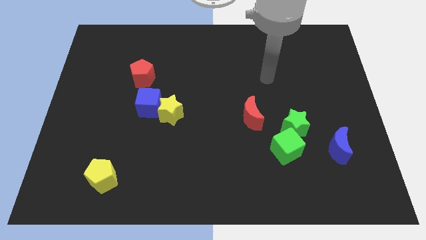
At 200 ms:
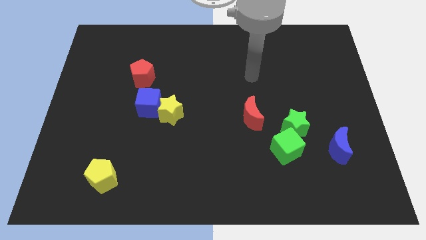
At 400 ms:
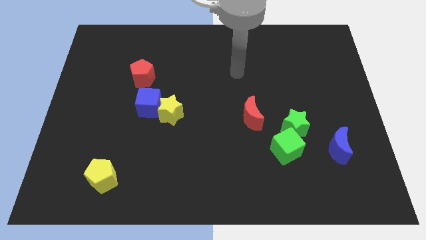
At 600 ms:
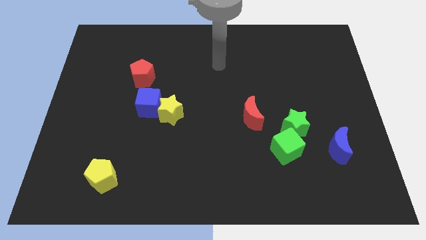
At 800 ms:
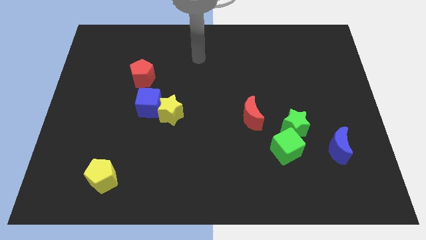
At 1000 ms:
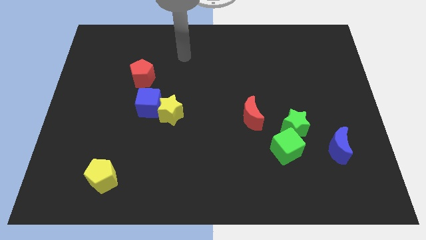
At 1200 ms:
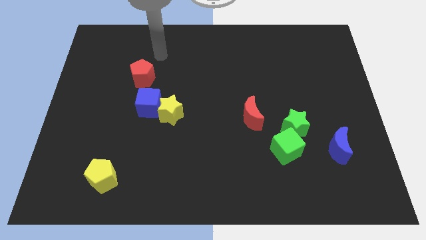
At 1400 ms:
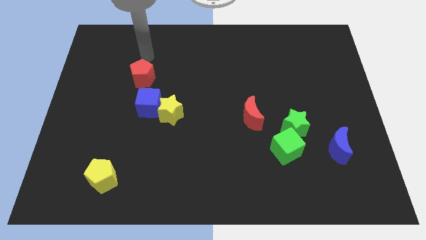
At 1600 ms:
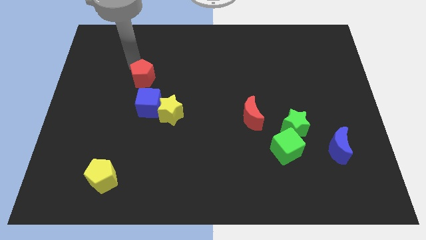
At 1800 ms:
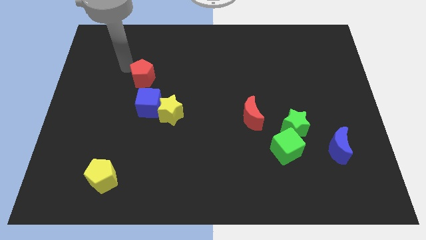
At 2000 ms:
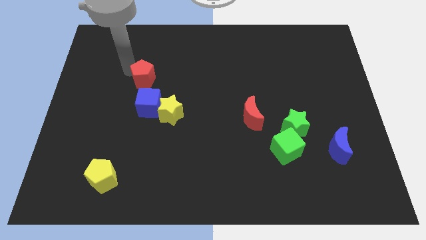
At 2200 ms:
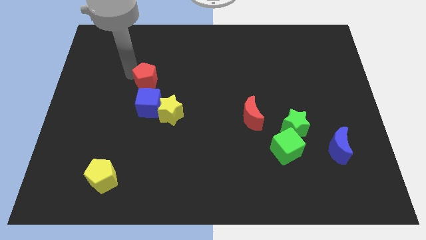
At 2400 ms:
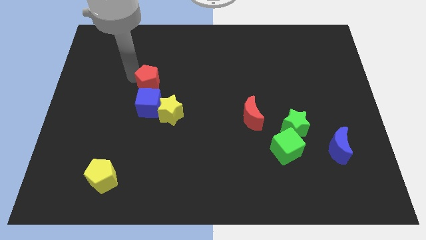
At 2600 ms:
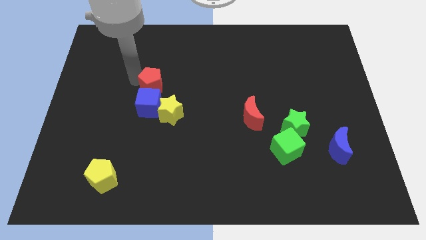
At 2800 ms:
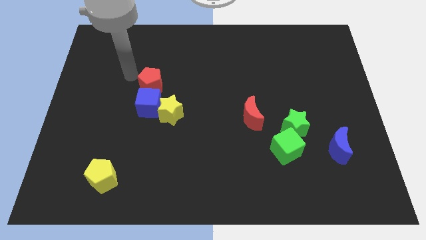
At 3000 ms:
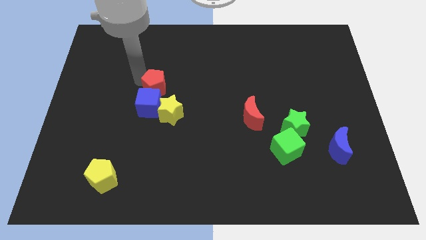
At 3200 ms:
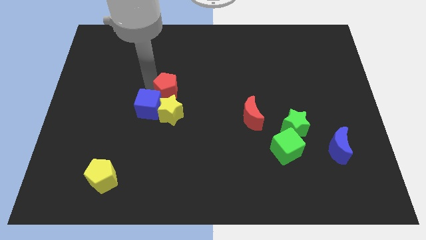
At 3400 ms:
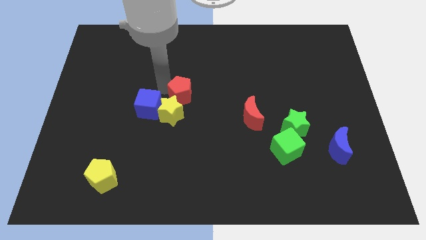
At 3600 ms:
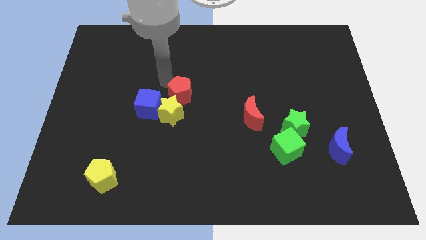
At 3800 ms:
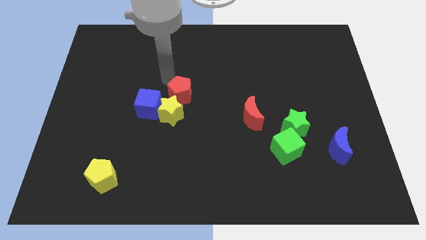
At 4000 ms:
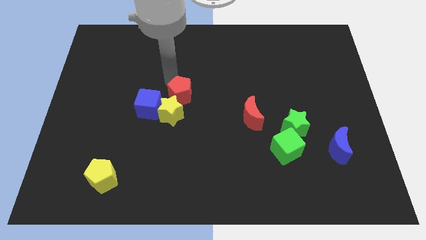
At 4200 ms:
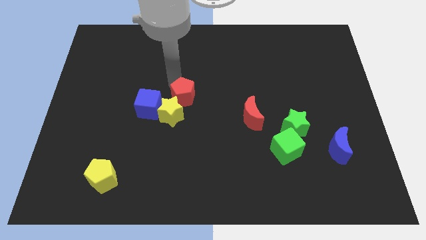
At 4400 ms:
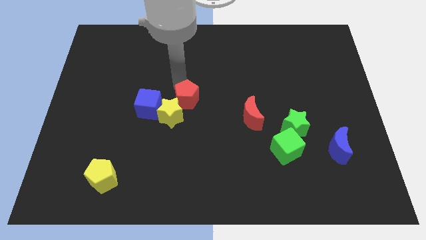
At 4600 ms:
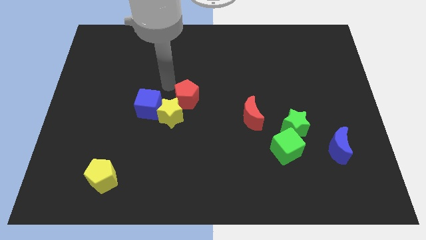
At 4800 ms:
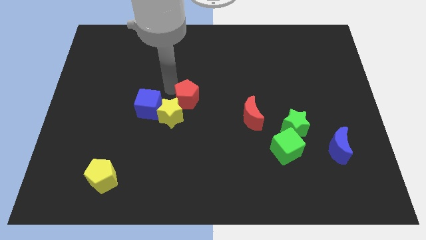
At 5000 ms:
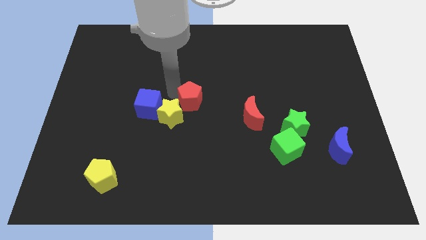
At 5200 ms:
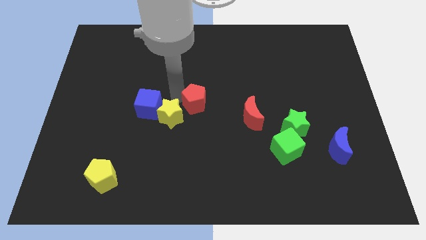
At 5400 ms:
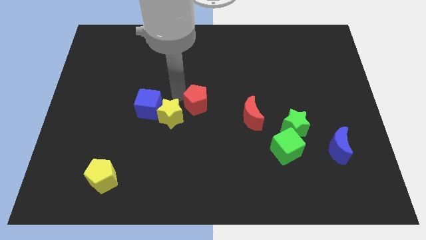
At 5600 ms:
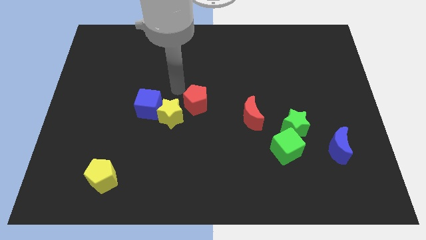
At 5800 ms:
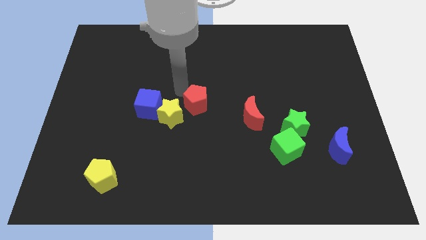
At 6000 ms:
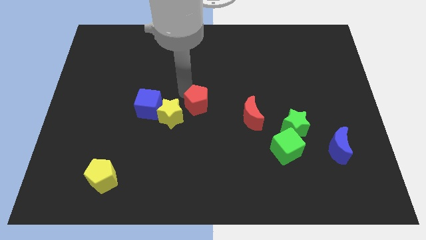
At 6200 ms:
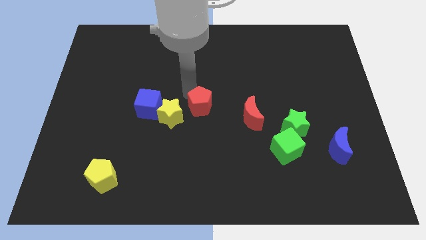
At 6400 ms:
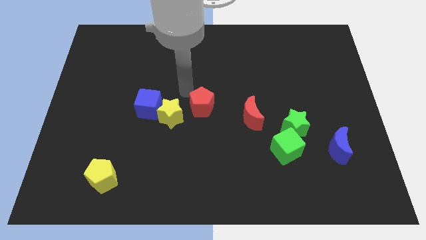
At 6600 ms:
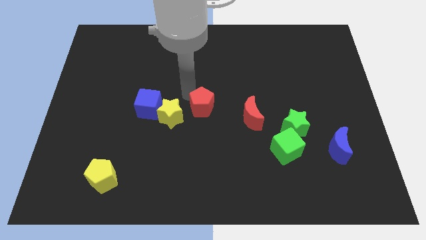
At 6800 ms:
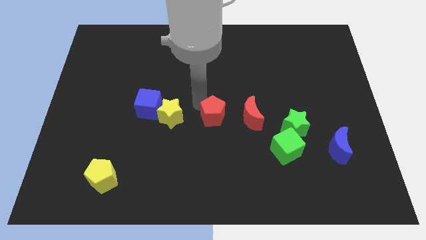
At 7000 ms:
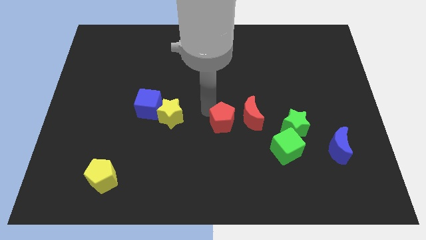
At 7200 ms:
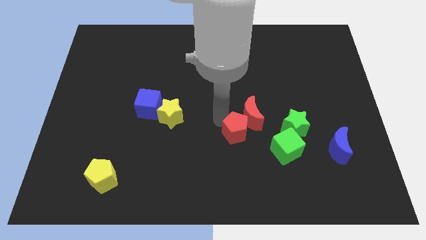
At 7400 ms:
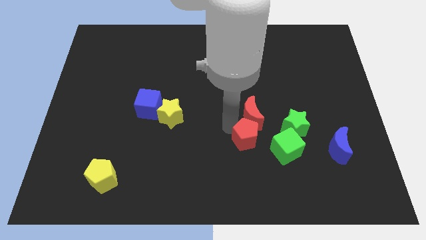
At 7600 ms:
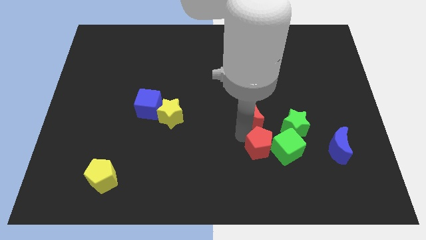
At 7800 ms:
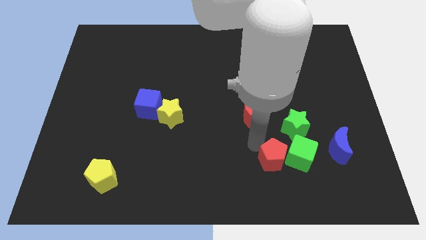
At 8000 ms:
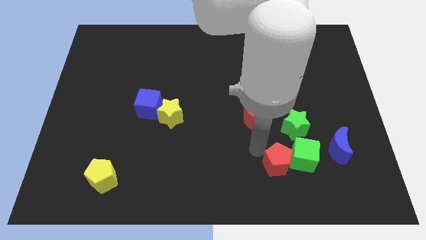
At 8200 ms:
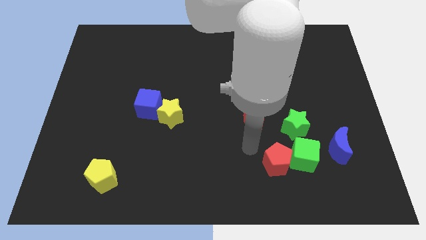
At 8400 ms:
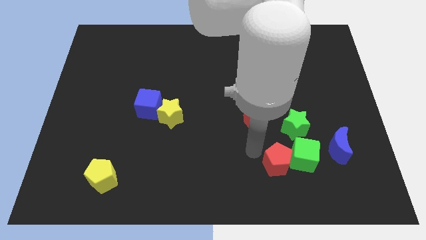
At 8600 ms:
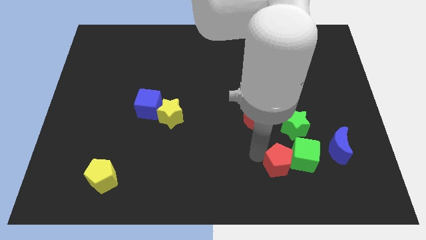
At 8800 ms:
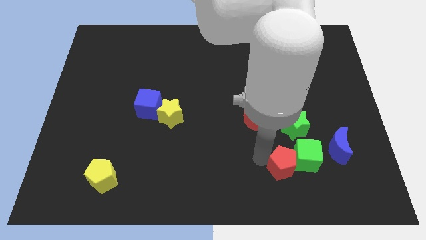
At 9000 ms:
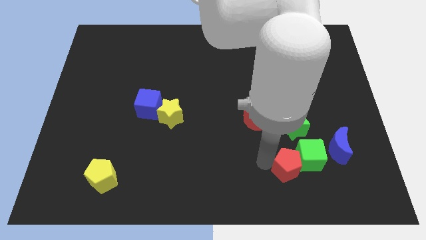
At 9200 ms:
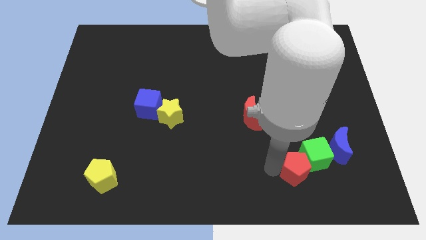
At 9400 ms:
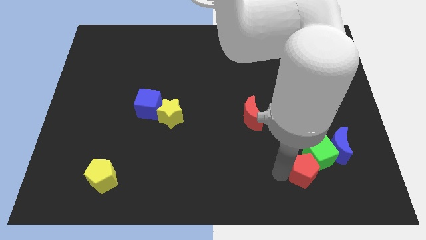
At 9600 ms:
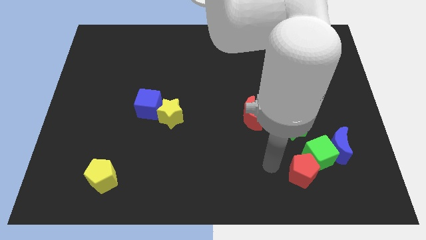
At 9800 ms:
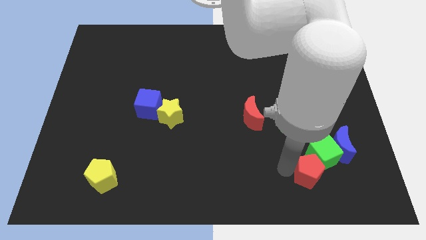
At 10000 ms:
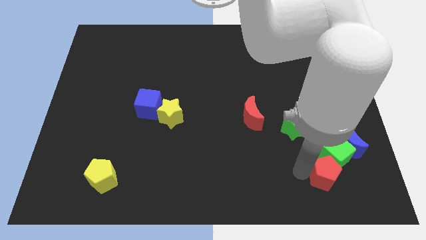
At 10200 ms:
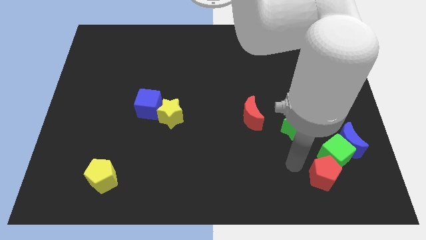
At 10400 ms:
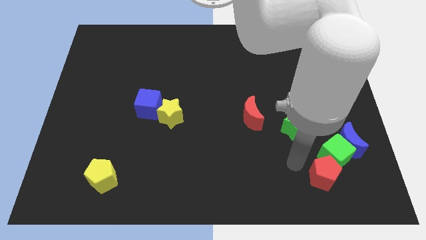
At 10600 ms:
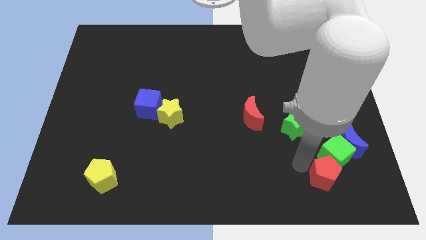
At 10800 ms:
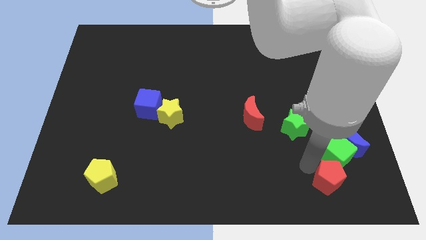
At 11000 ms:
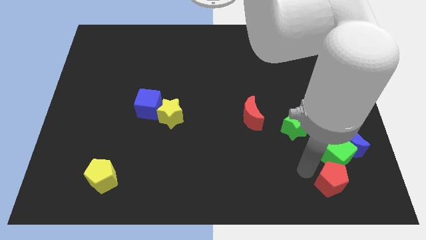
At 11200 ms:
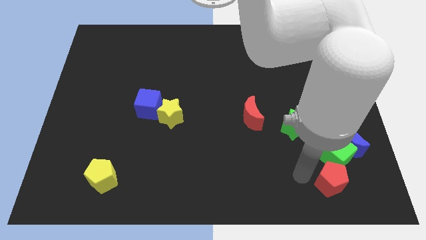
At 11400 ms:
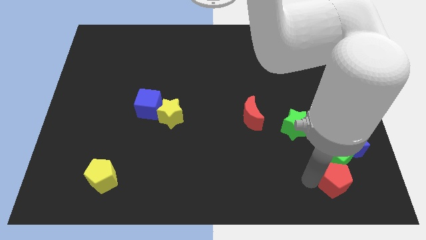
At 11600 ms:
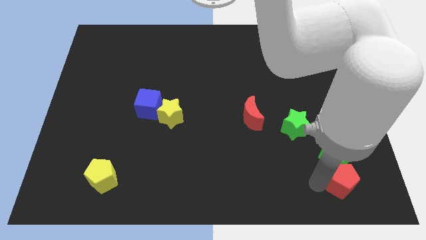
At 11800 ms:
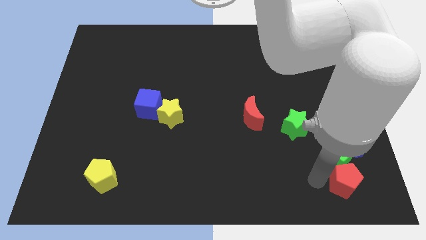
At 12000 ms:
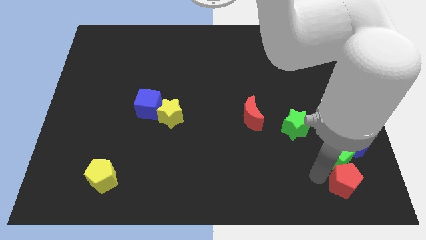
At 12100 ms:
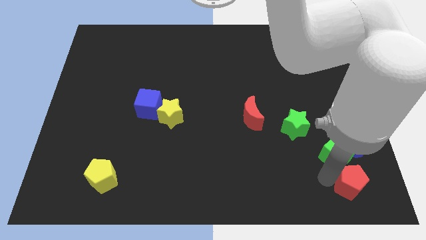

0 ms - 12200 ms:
put the red pentagon to the bottom right

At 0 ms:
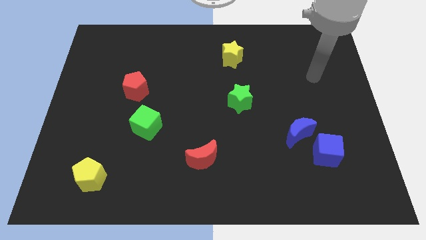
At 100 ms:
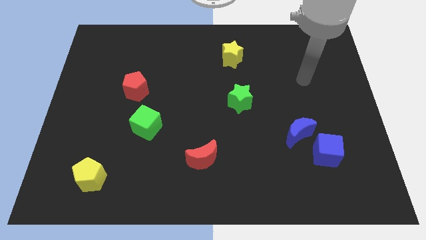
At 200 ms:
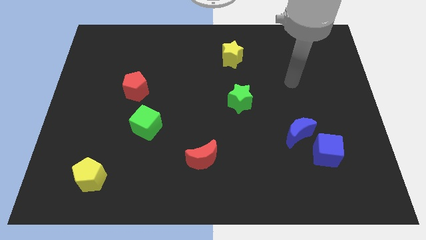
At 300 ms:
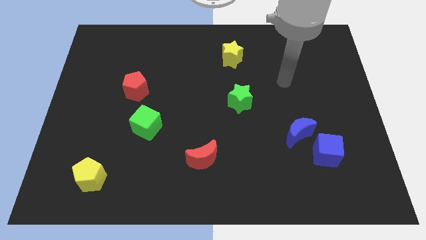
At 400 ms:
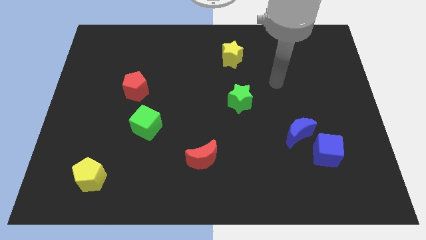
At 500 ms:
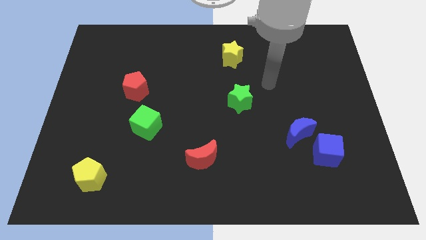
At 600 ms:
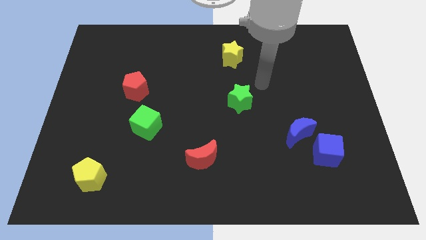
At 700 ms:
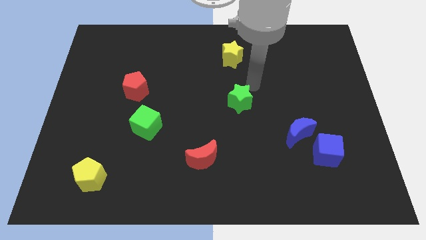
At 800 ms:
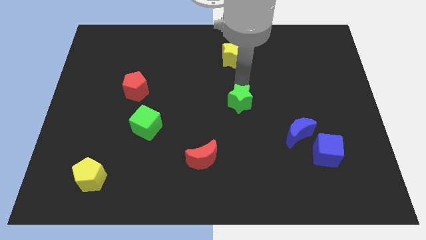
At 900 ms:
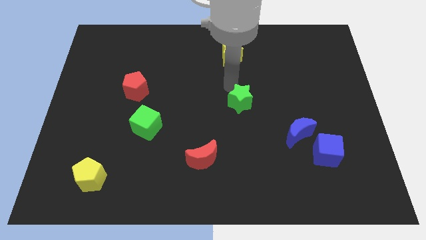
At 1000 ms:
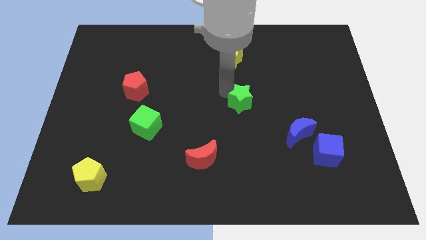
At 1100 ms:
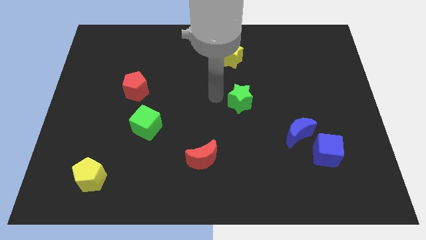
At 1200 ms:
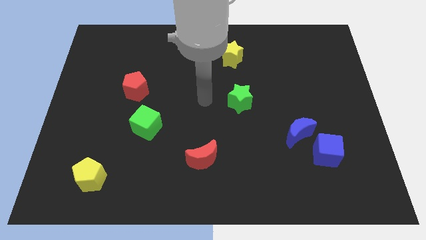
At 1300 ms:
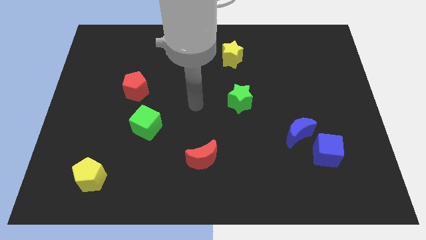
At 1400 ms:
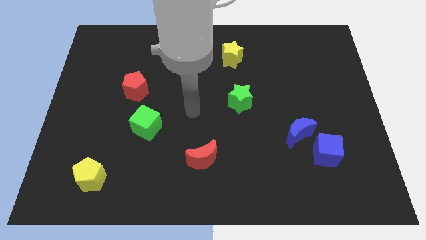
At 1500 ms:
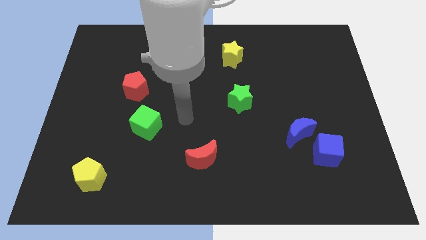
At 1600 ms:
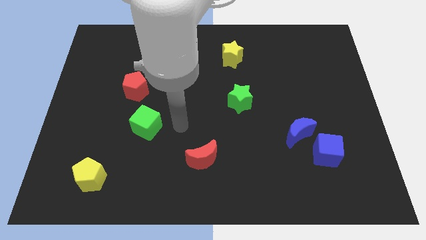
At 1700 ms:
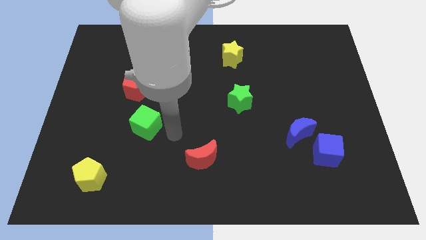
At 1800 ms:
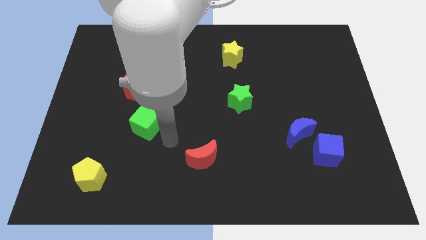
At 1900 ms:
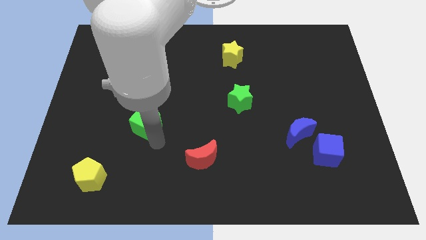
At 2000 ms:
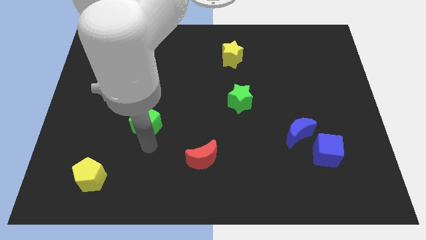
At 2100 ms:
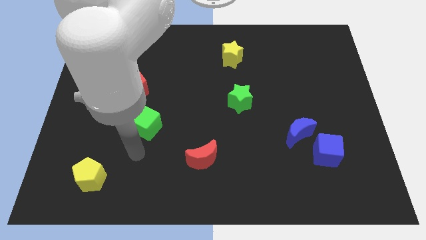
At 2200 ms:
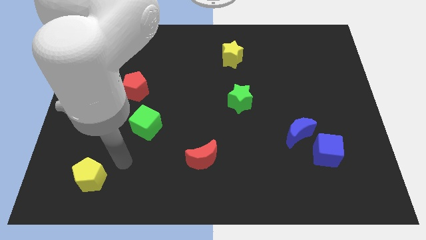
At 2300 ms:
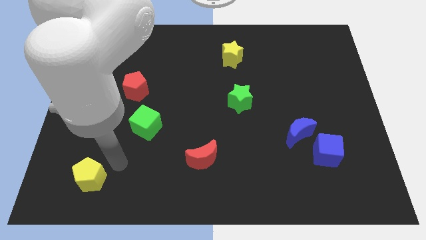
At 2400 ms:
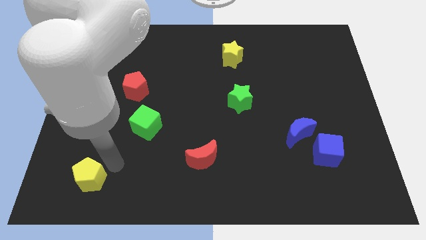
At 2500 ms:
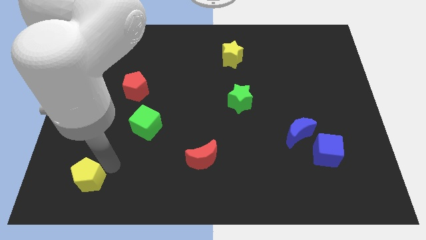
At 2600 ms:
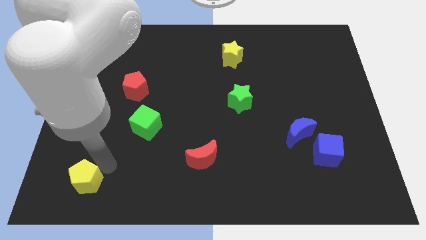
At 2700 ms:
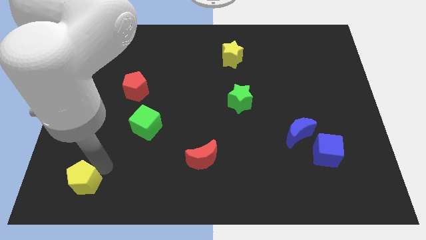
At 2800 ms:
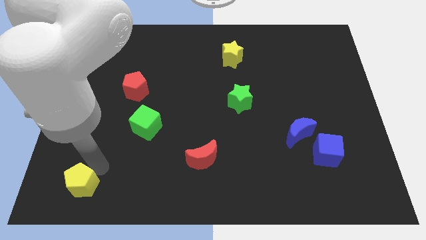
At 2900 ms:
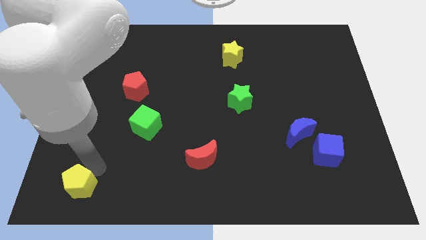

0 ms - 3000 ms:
slide the yellow pentagon to the lower left corner
